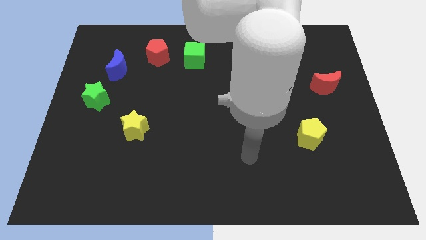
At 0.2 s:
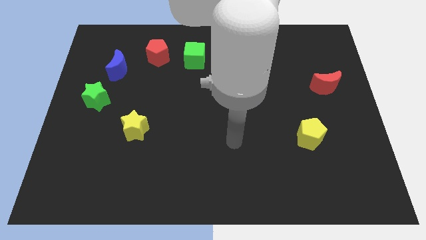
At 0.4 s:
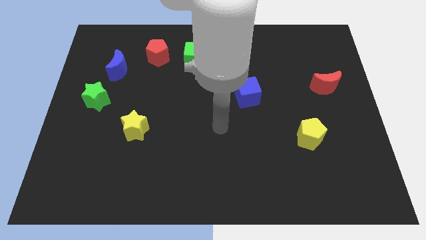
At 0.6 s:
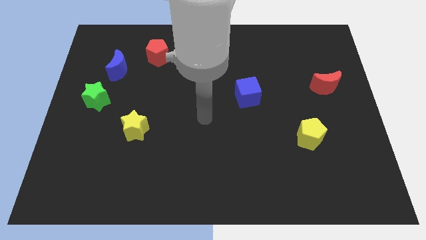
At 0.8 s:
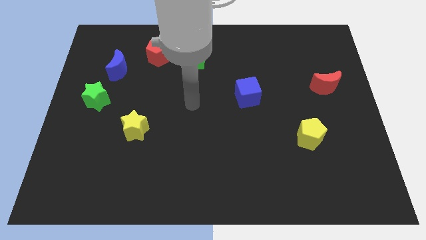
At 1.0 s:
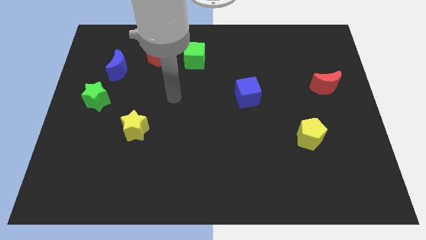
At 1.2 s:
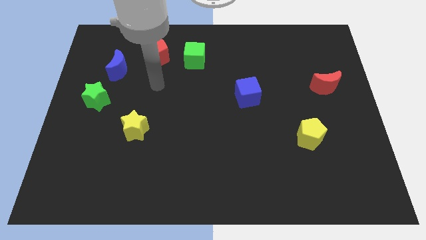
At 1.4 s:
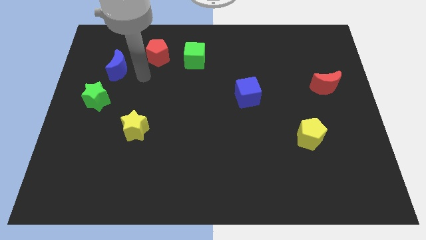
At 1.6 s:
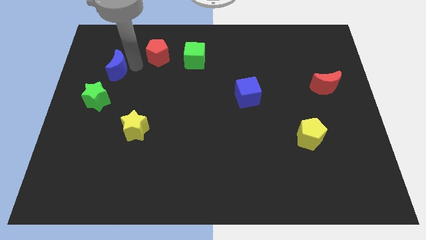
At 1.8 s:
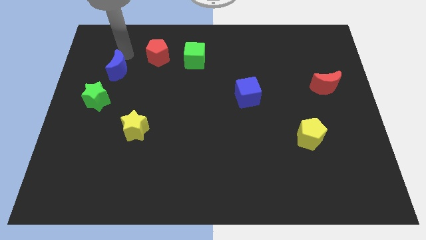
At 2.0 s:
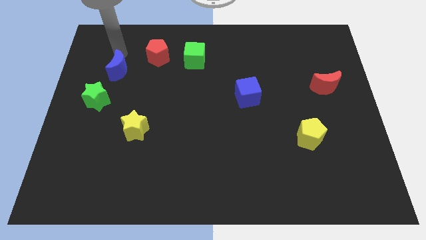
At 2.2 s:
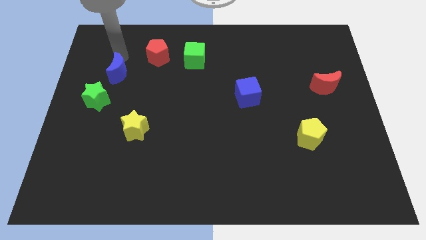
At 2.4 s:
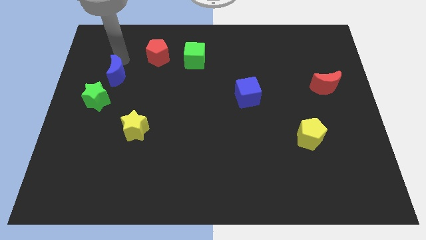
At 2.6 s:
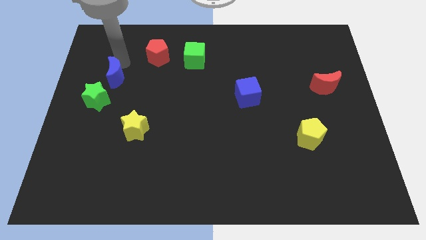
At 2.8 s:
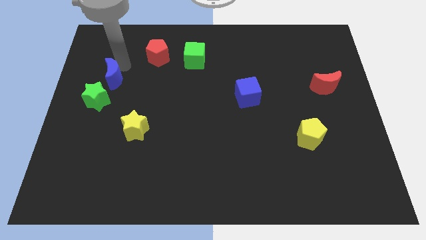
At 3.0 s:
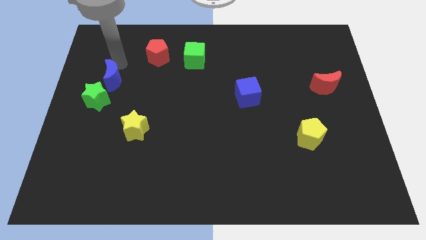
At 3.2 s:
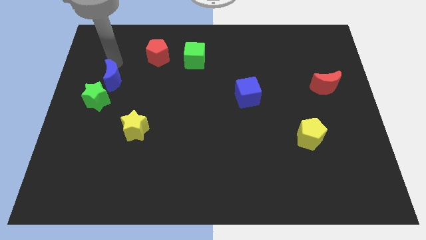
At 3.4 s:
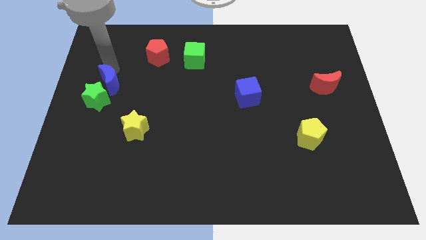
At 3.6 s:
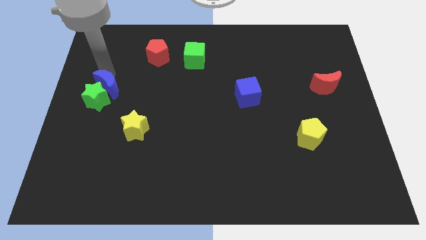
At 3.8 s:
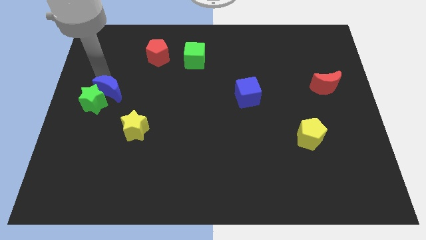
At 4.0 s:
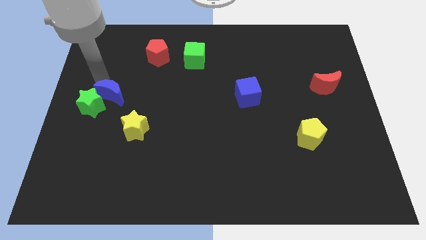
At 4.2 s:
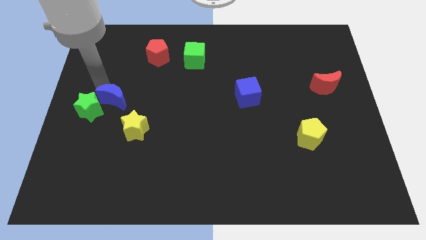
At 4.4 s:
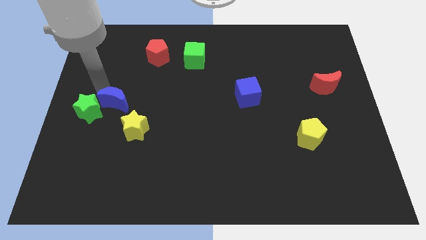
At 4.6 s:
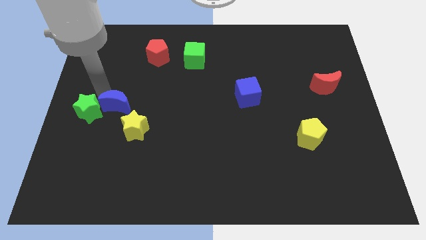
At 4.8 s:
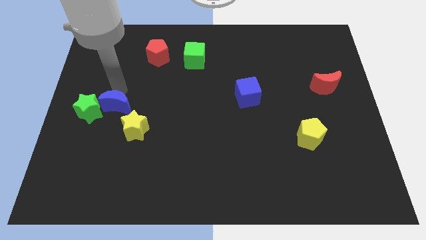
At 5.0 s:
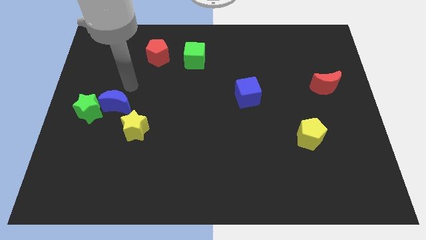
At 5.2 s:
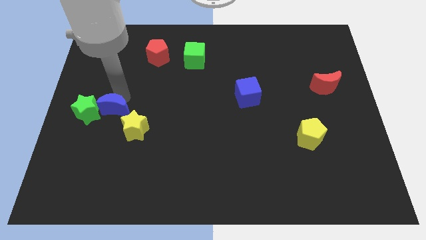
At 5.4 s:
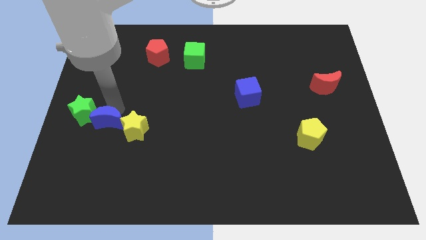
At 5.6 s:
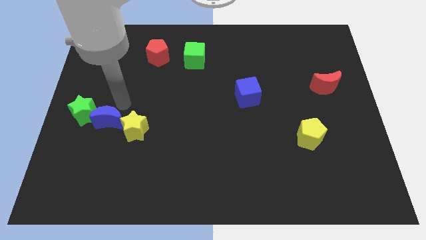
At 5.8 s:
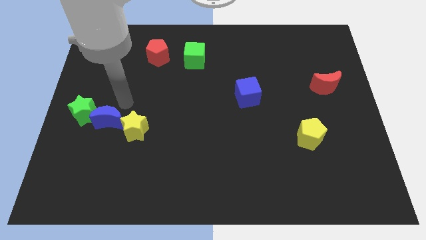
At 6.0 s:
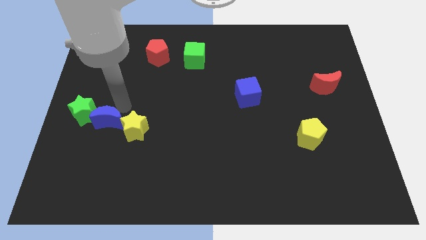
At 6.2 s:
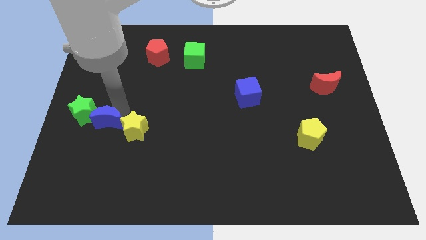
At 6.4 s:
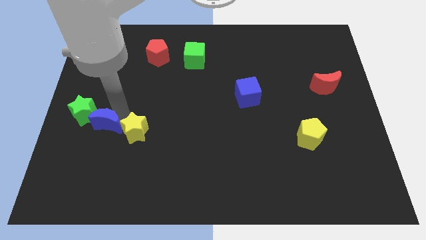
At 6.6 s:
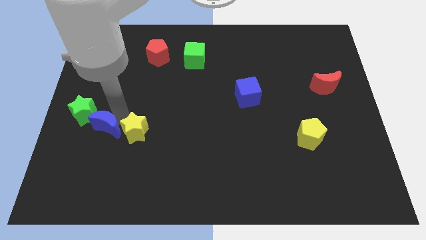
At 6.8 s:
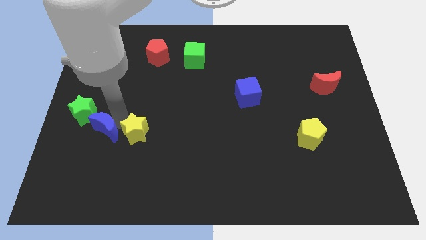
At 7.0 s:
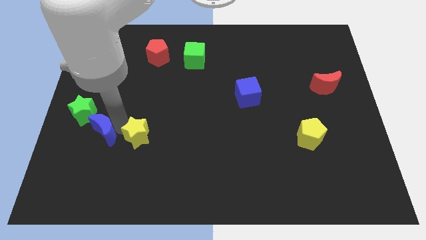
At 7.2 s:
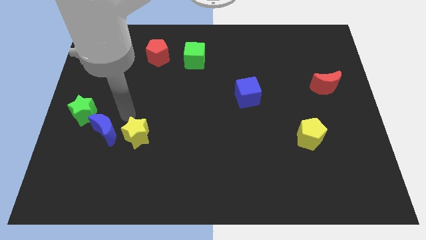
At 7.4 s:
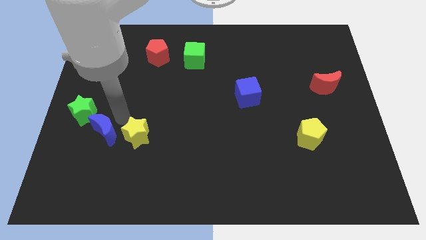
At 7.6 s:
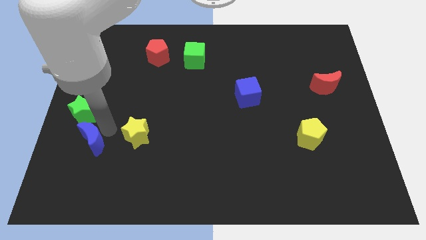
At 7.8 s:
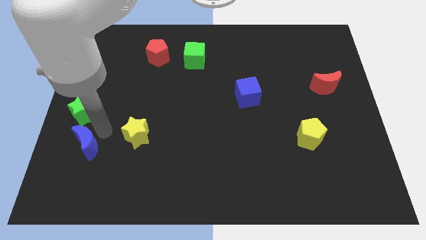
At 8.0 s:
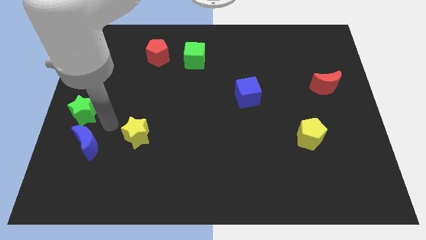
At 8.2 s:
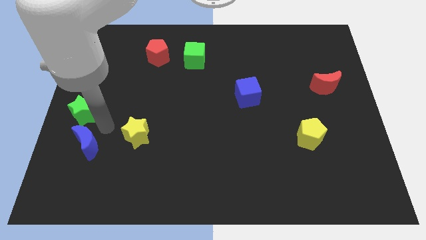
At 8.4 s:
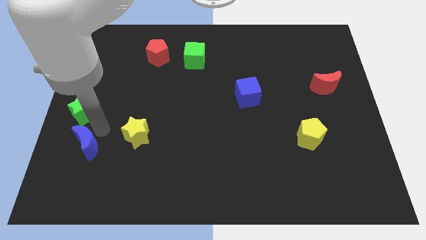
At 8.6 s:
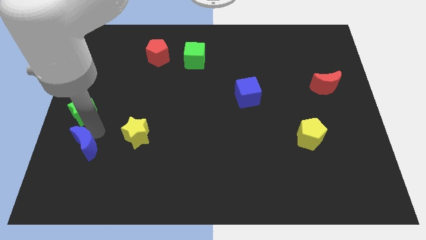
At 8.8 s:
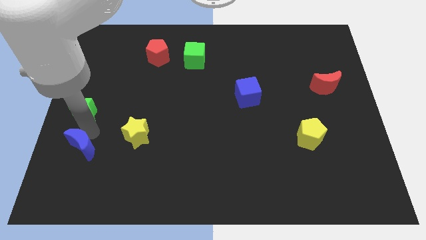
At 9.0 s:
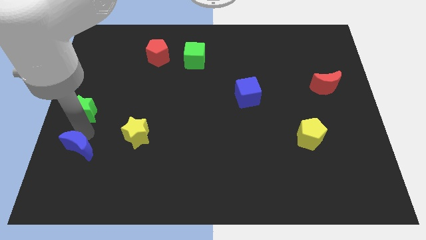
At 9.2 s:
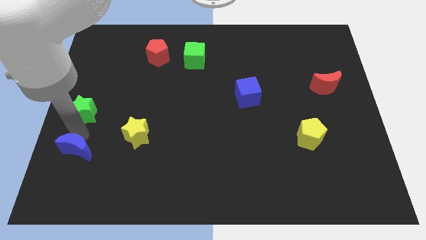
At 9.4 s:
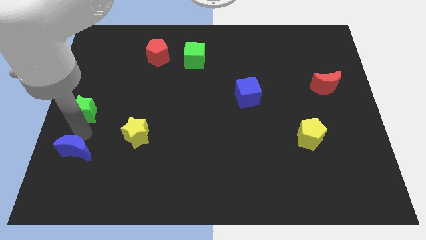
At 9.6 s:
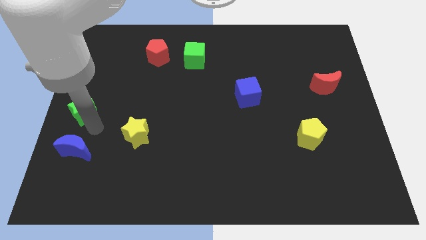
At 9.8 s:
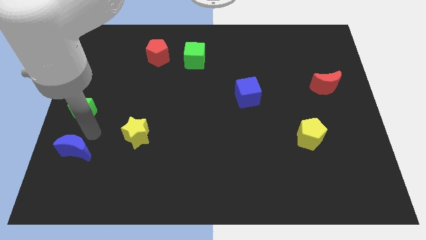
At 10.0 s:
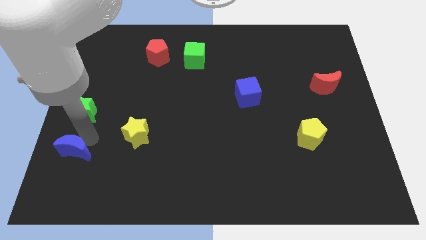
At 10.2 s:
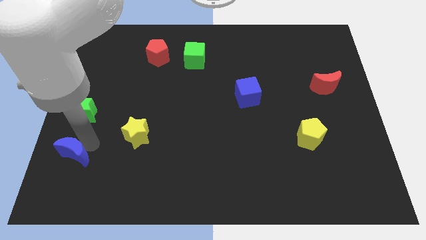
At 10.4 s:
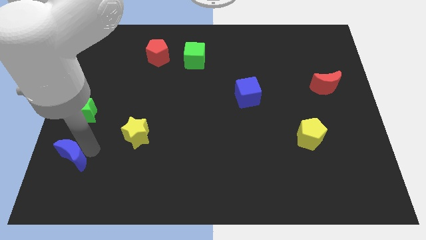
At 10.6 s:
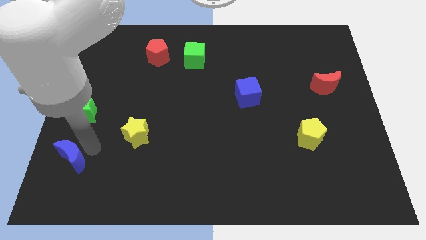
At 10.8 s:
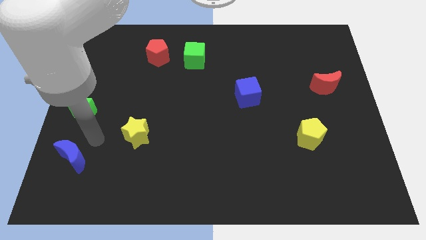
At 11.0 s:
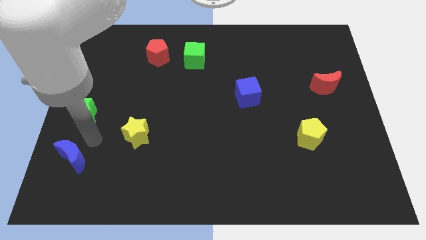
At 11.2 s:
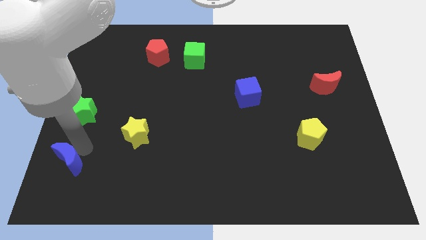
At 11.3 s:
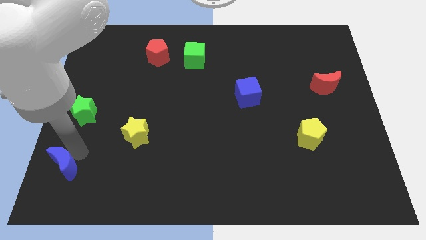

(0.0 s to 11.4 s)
push the blue moon to the bottom left
